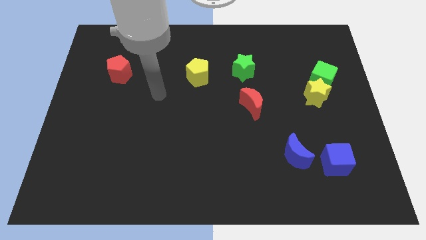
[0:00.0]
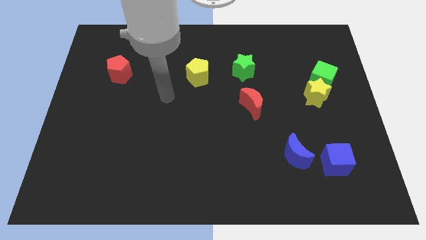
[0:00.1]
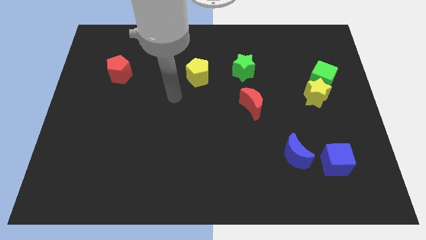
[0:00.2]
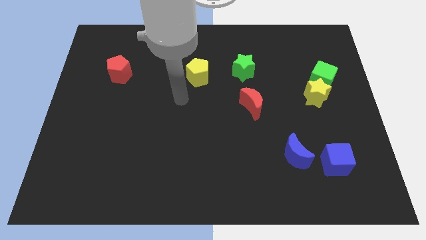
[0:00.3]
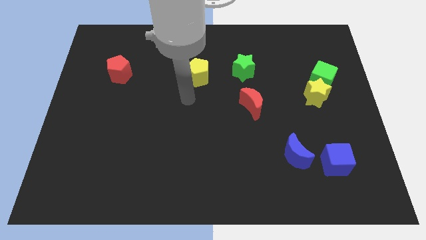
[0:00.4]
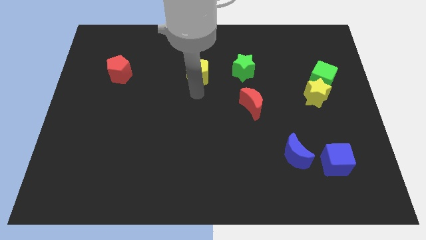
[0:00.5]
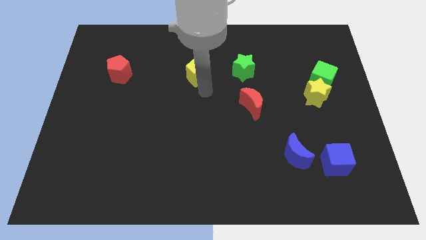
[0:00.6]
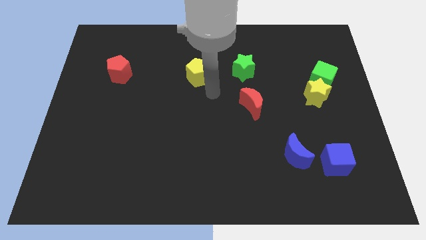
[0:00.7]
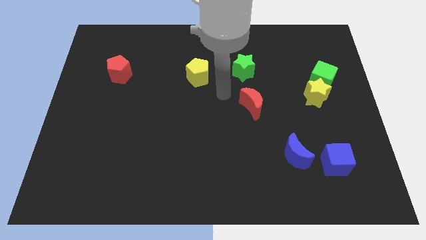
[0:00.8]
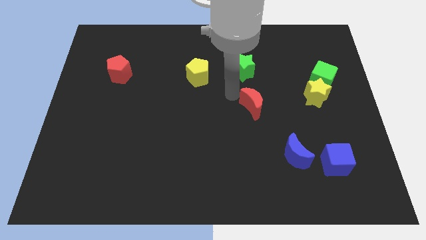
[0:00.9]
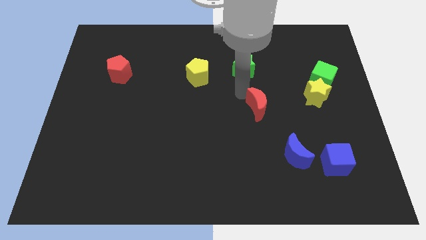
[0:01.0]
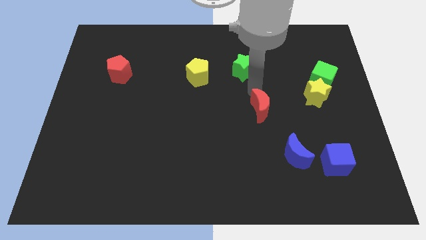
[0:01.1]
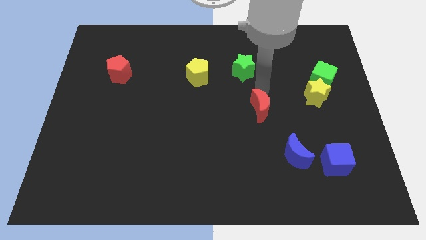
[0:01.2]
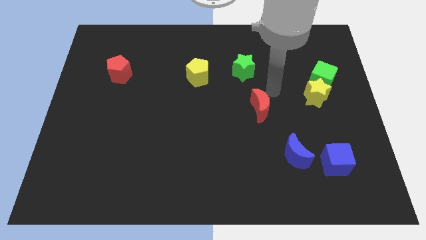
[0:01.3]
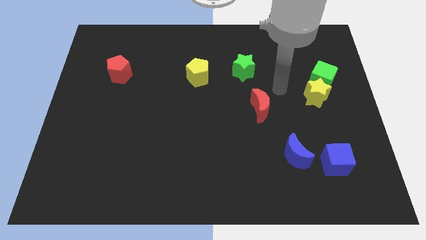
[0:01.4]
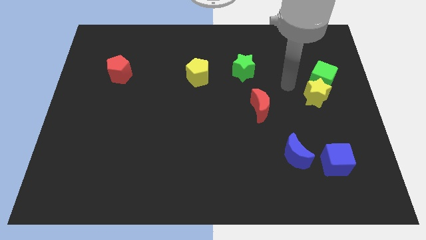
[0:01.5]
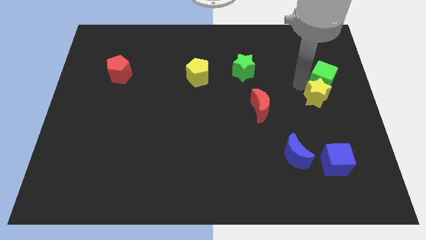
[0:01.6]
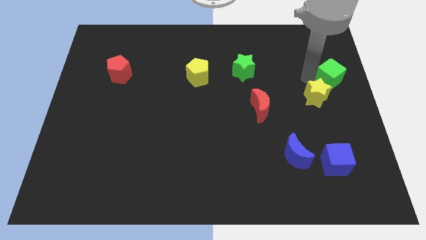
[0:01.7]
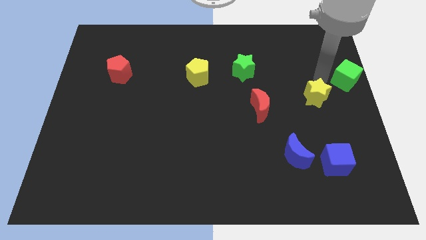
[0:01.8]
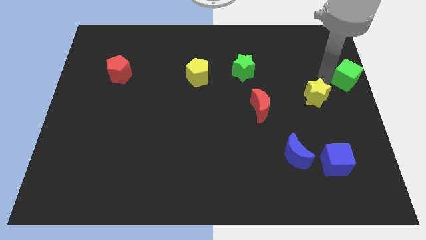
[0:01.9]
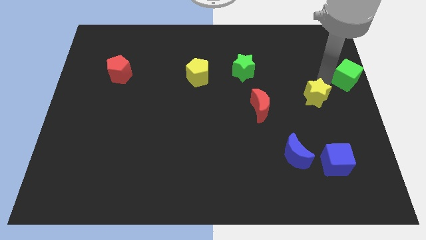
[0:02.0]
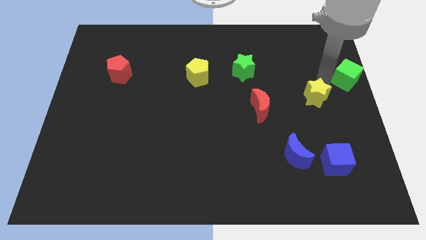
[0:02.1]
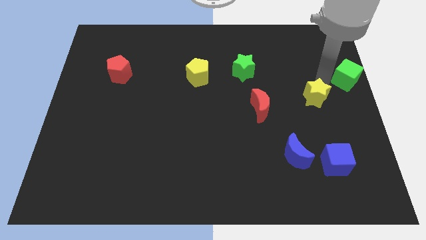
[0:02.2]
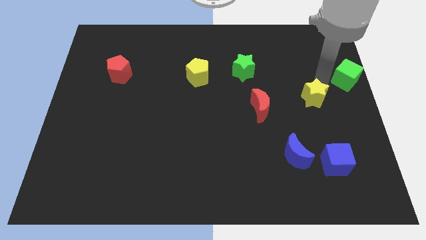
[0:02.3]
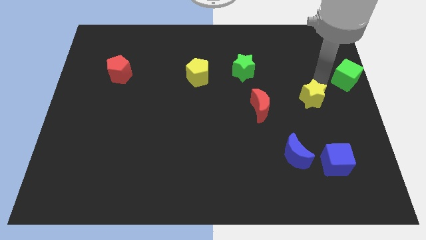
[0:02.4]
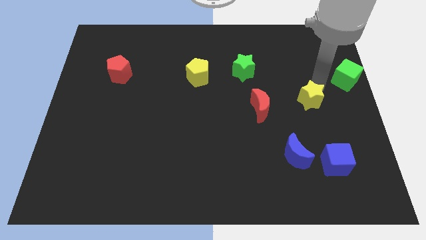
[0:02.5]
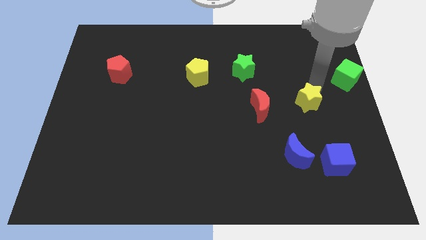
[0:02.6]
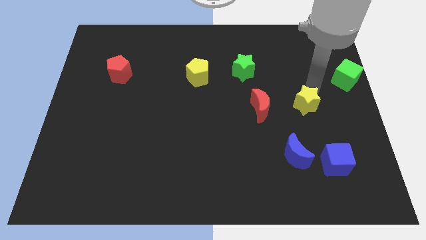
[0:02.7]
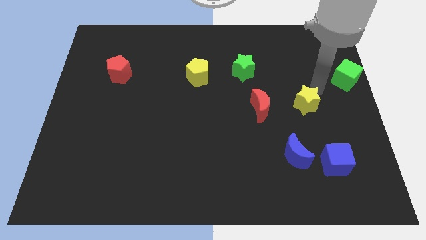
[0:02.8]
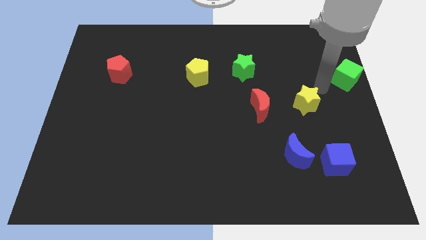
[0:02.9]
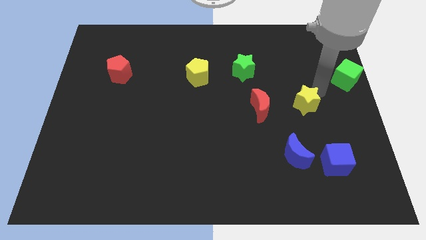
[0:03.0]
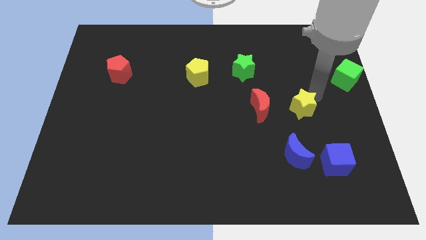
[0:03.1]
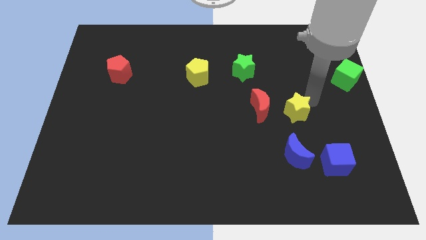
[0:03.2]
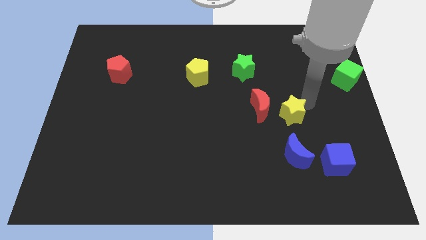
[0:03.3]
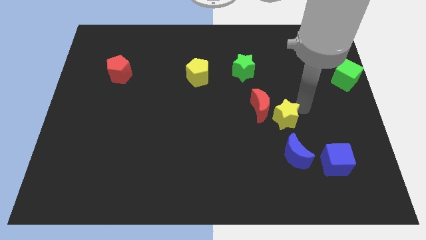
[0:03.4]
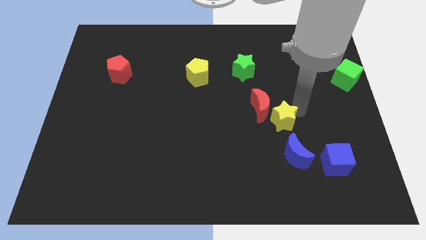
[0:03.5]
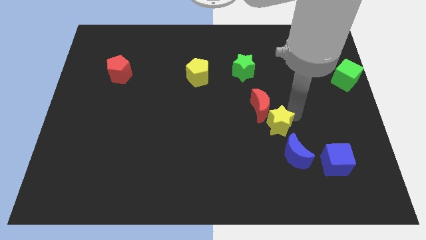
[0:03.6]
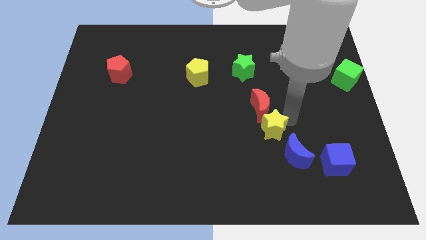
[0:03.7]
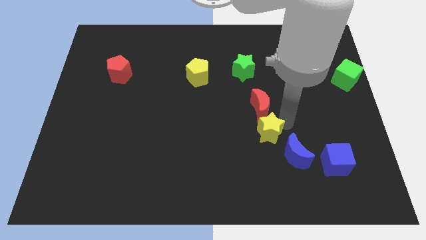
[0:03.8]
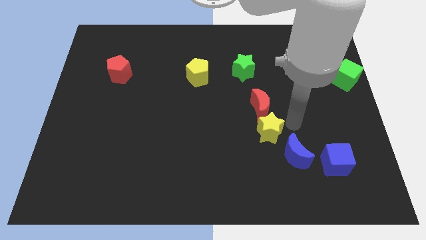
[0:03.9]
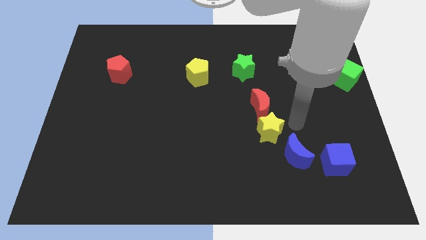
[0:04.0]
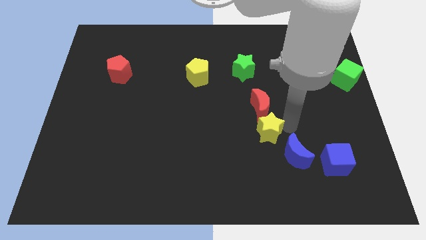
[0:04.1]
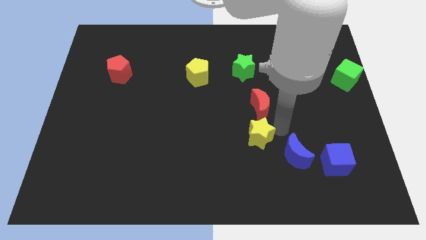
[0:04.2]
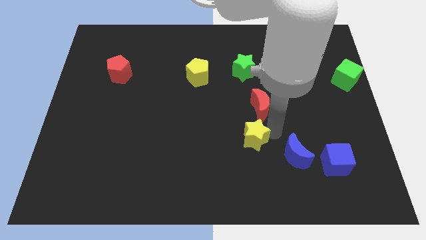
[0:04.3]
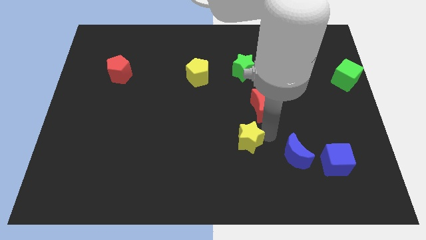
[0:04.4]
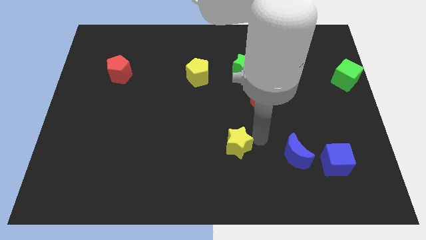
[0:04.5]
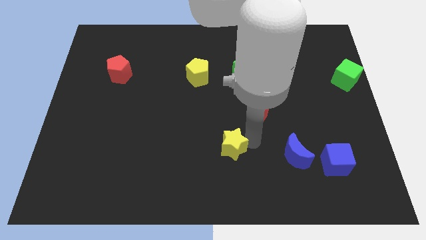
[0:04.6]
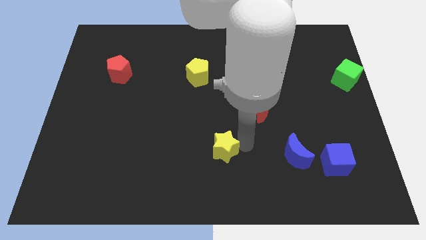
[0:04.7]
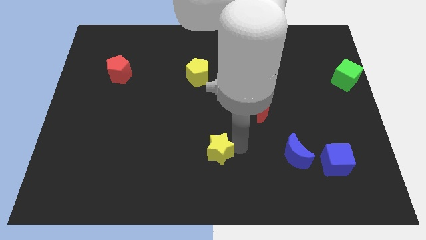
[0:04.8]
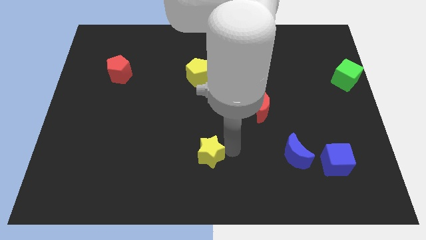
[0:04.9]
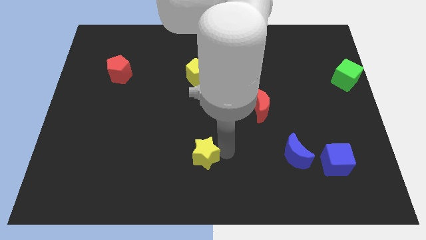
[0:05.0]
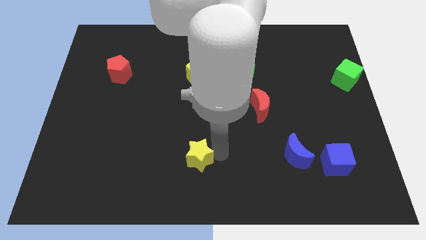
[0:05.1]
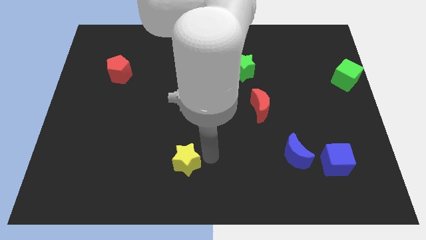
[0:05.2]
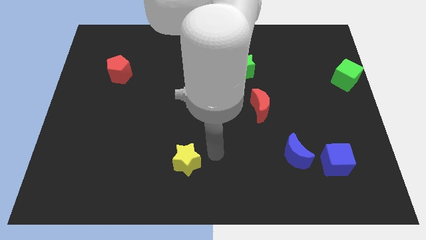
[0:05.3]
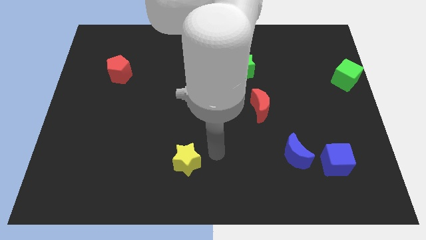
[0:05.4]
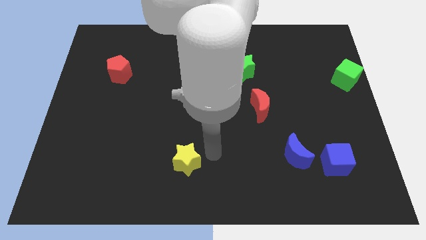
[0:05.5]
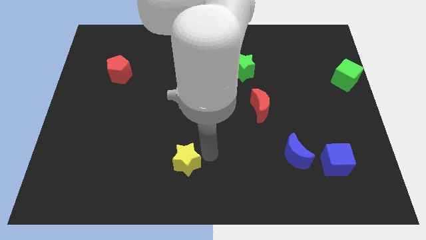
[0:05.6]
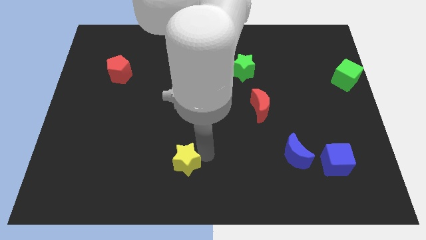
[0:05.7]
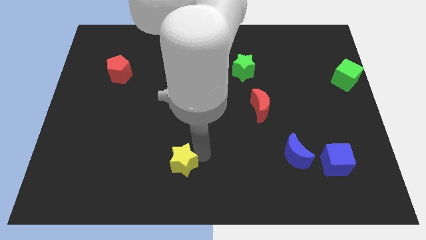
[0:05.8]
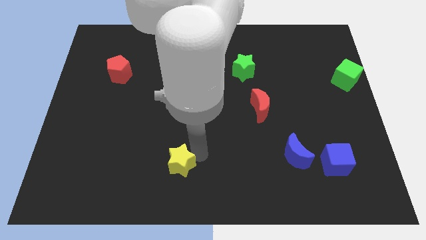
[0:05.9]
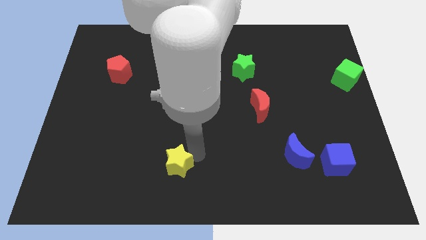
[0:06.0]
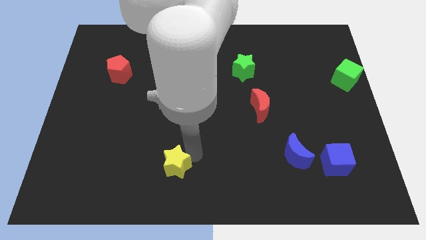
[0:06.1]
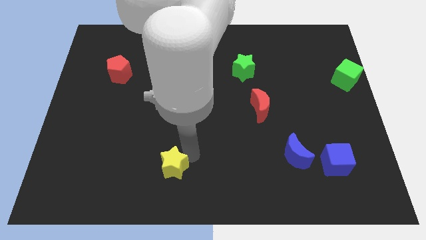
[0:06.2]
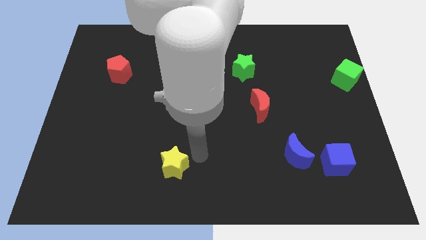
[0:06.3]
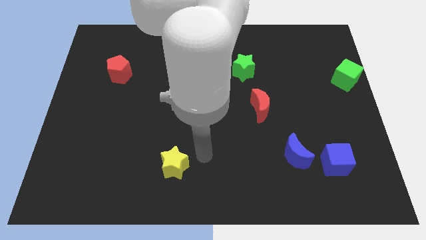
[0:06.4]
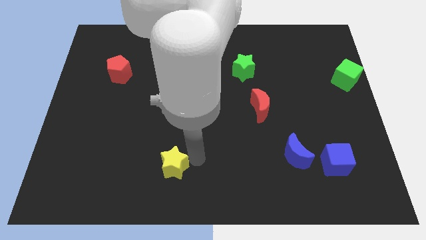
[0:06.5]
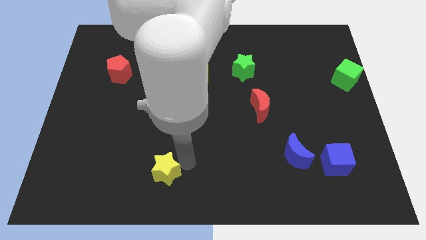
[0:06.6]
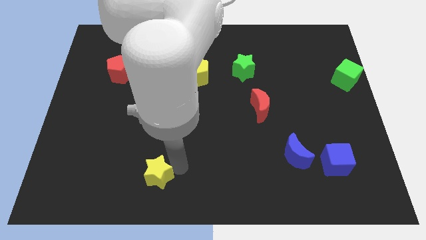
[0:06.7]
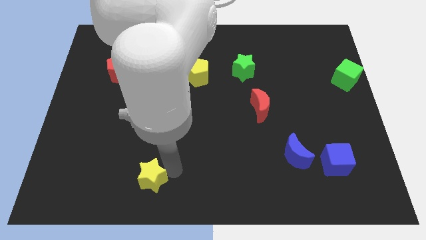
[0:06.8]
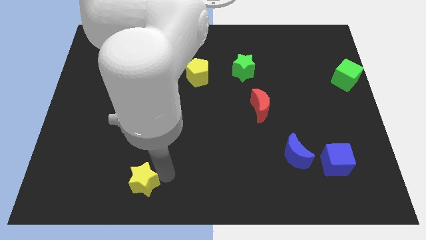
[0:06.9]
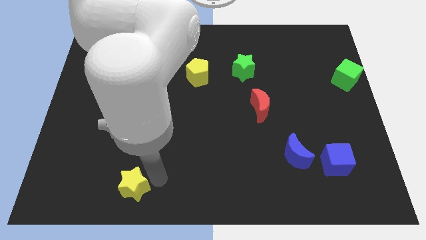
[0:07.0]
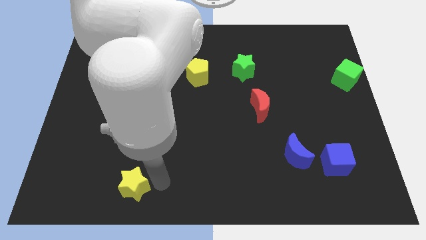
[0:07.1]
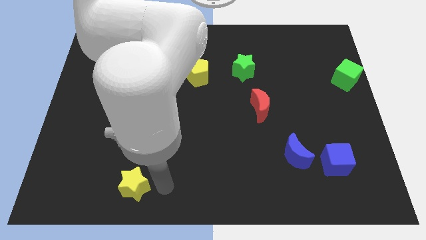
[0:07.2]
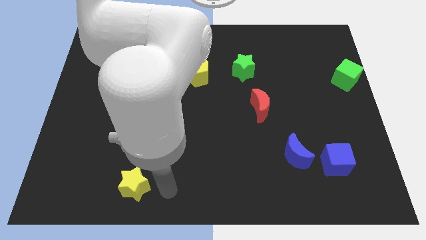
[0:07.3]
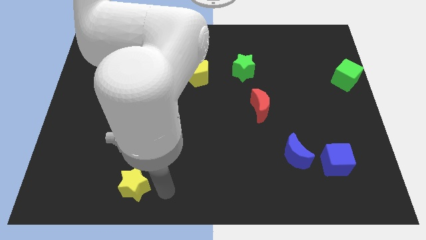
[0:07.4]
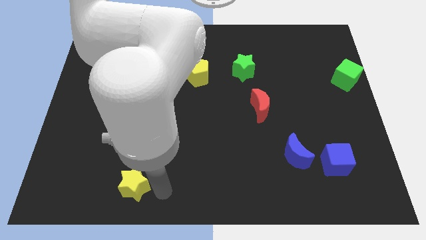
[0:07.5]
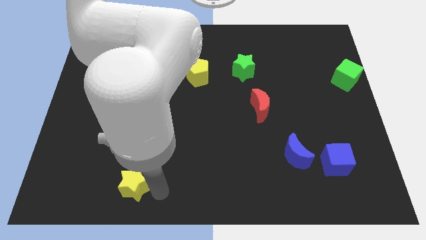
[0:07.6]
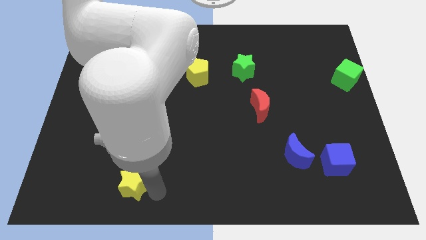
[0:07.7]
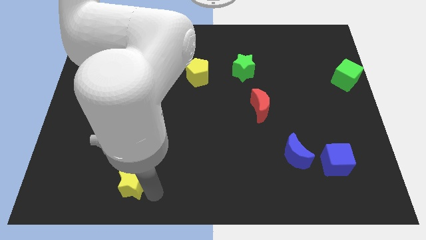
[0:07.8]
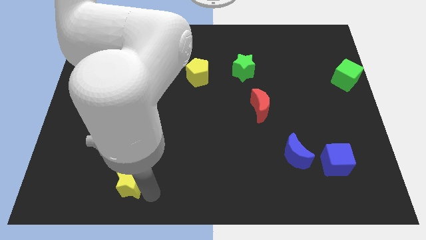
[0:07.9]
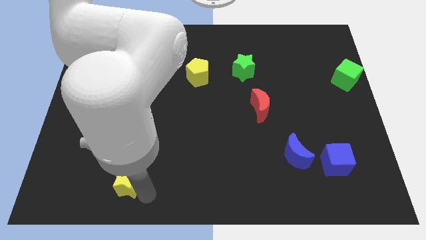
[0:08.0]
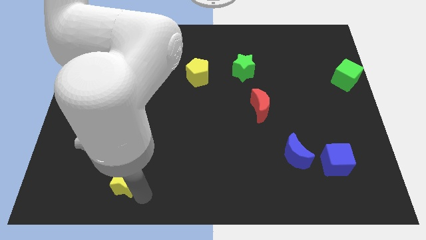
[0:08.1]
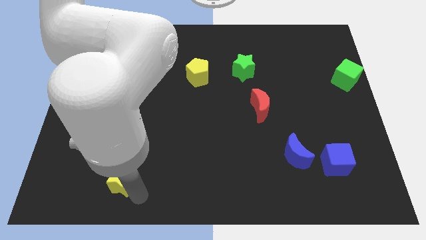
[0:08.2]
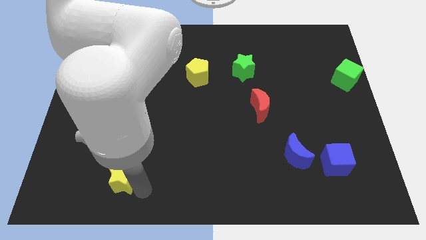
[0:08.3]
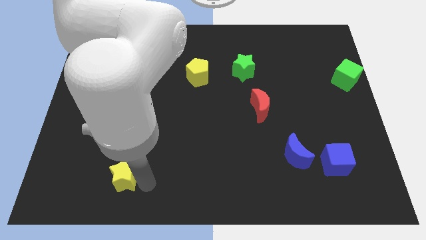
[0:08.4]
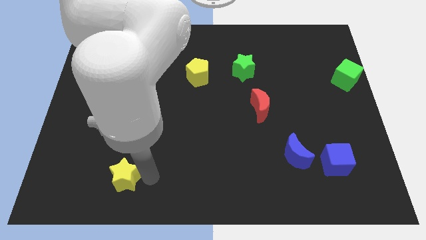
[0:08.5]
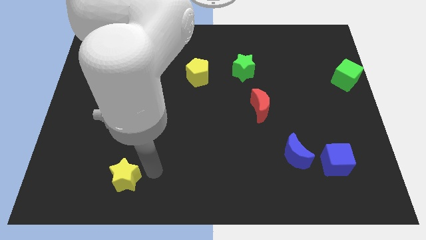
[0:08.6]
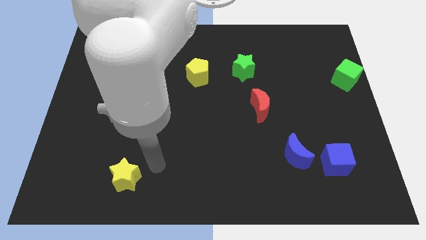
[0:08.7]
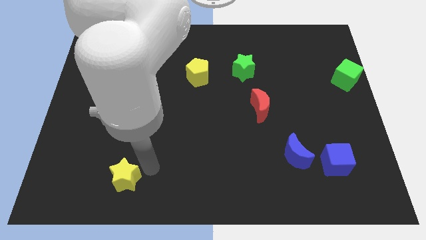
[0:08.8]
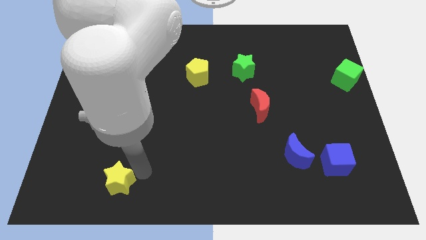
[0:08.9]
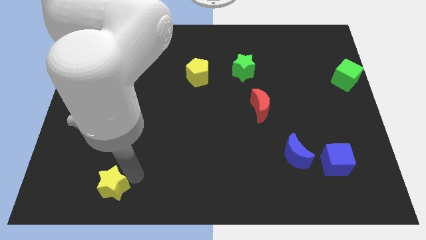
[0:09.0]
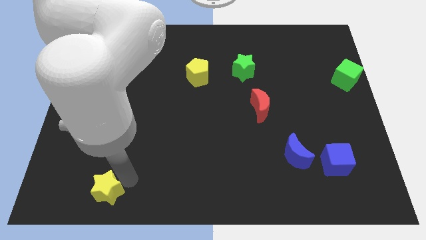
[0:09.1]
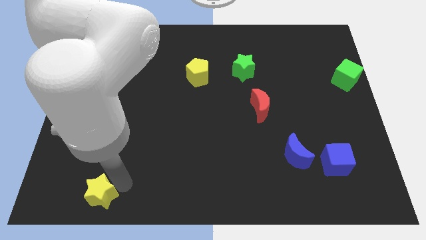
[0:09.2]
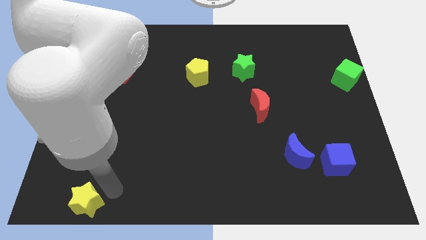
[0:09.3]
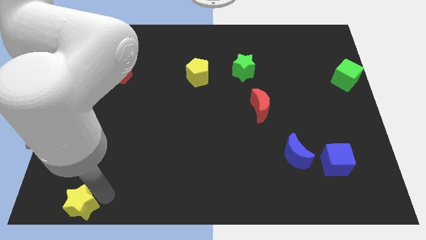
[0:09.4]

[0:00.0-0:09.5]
put the yellow star to the bottom left of the board
